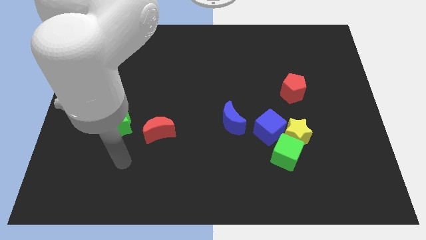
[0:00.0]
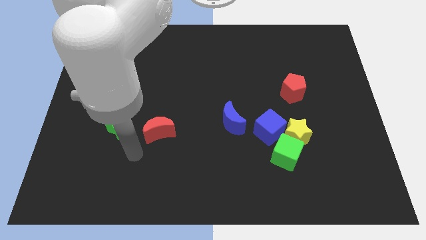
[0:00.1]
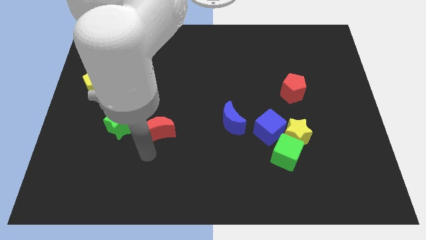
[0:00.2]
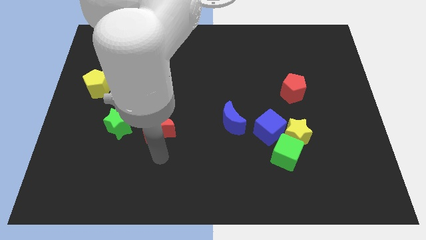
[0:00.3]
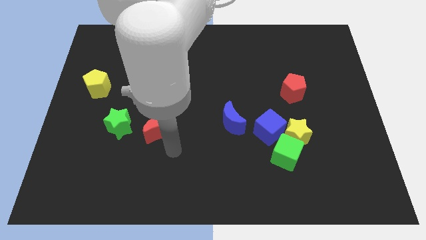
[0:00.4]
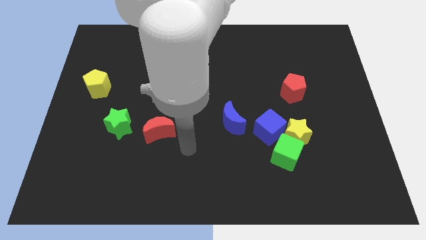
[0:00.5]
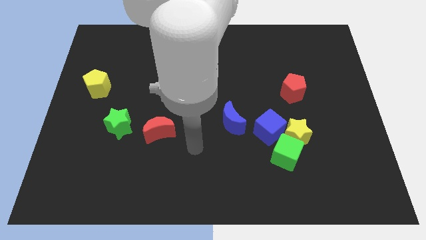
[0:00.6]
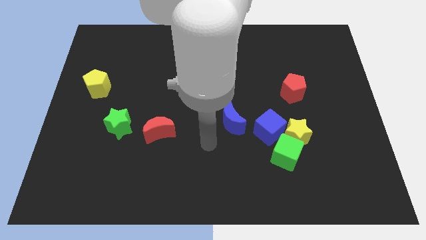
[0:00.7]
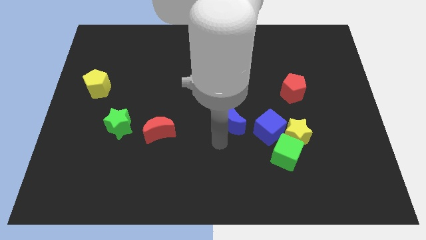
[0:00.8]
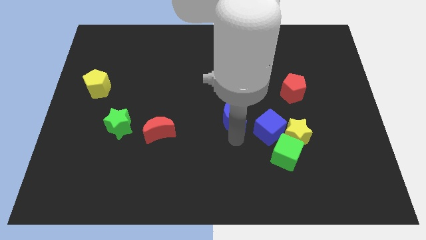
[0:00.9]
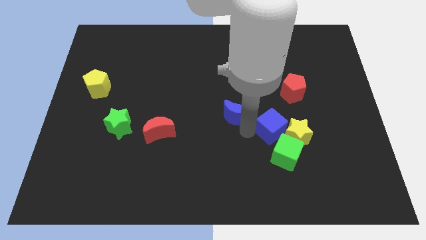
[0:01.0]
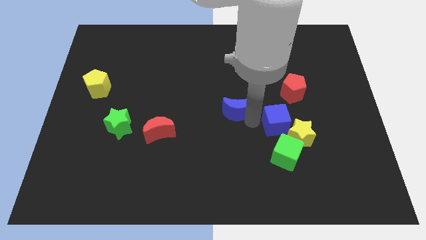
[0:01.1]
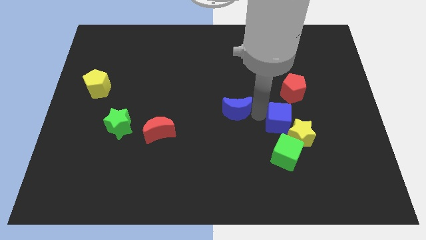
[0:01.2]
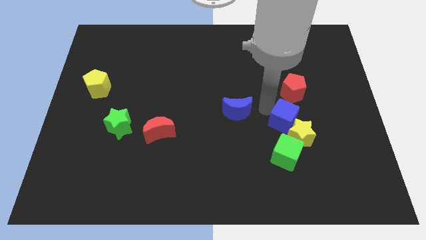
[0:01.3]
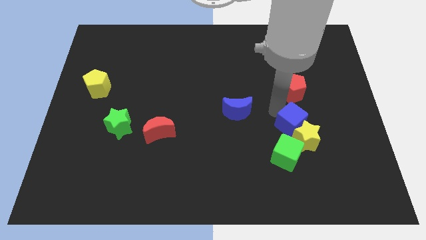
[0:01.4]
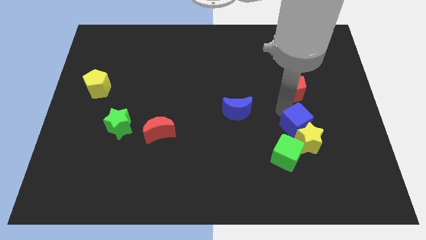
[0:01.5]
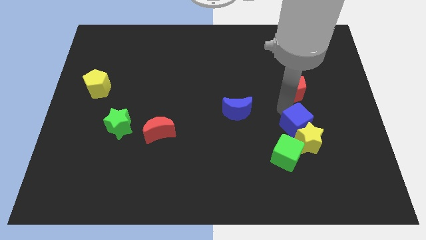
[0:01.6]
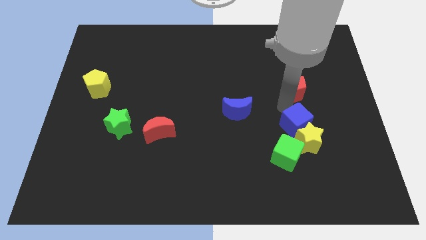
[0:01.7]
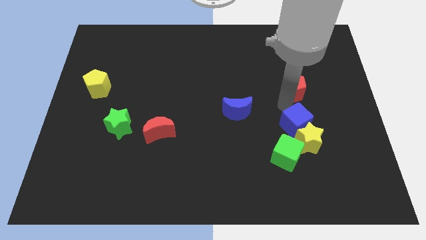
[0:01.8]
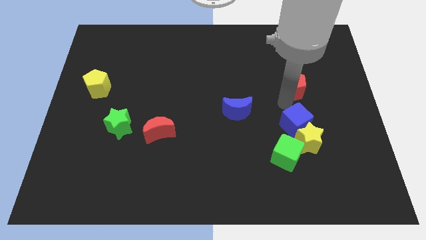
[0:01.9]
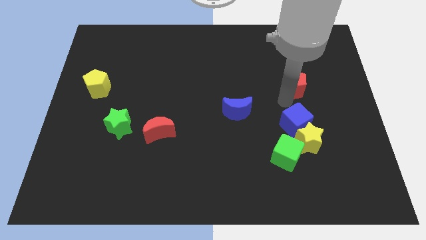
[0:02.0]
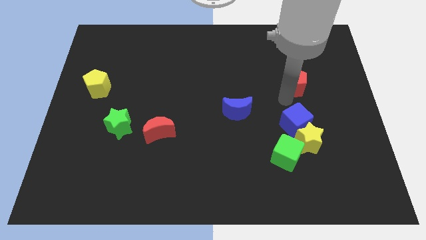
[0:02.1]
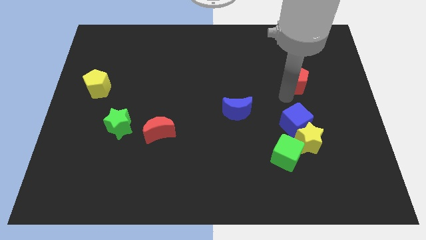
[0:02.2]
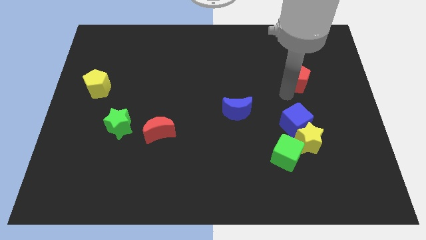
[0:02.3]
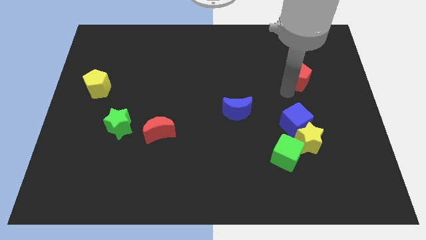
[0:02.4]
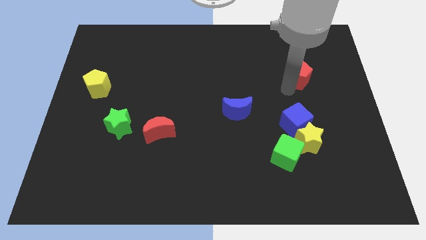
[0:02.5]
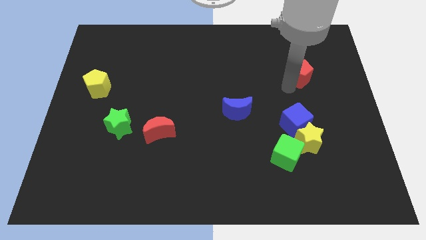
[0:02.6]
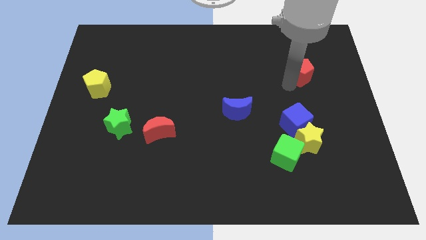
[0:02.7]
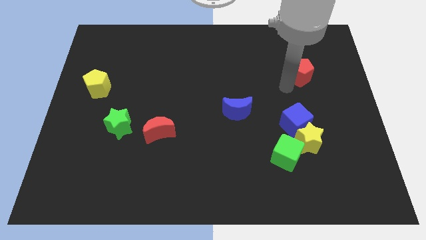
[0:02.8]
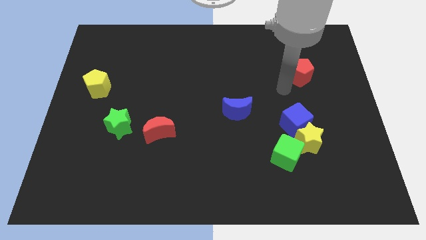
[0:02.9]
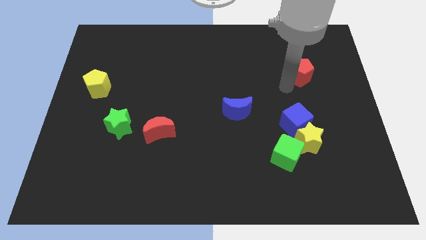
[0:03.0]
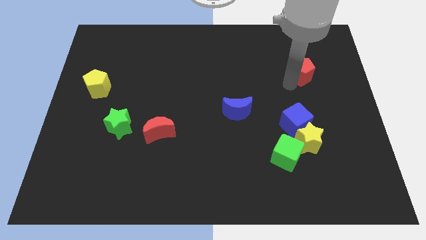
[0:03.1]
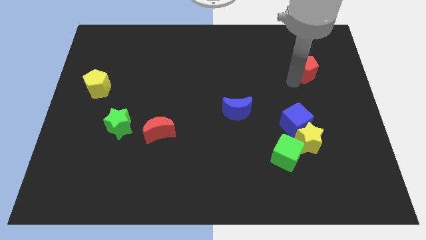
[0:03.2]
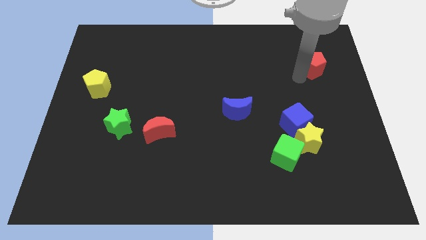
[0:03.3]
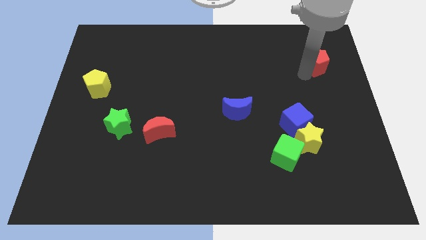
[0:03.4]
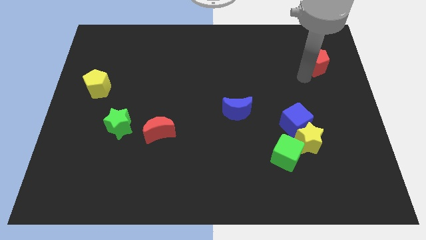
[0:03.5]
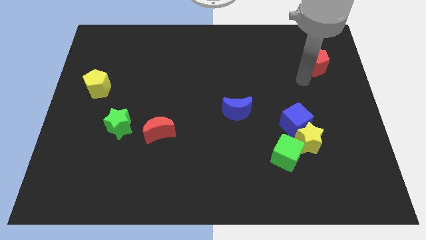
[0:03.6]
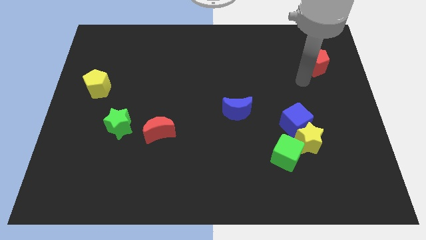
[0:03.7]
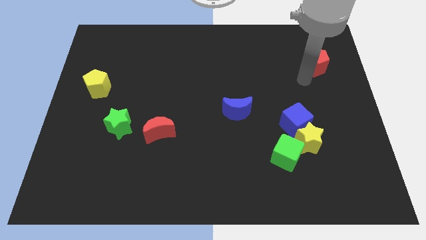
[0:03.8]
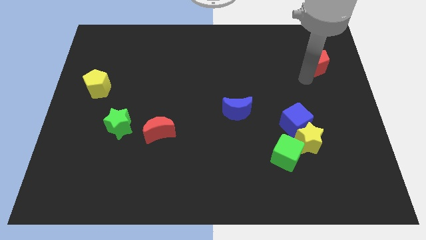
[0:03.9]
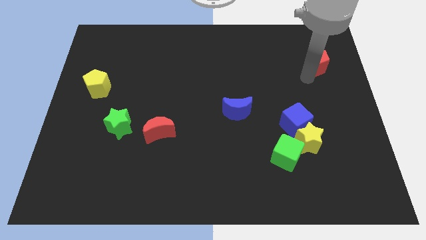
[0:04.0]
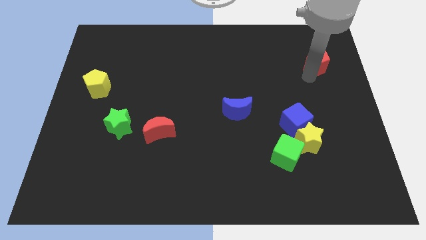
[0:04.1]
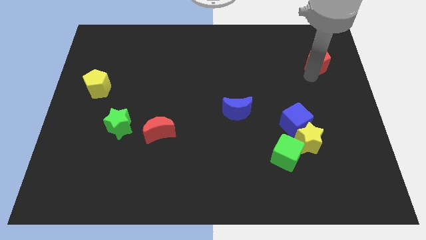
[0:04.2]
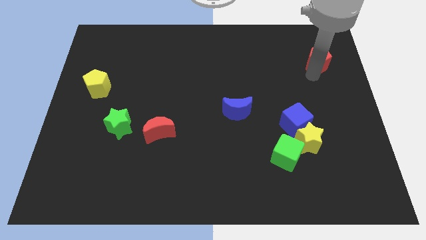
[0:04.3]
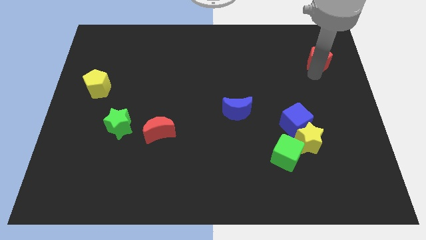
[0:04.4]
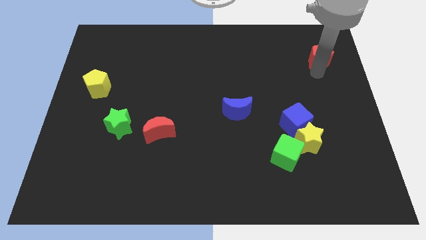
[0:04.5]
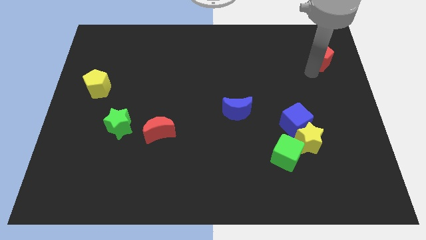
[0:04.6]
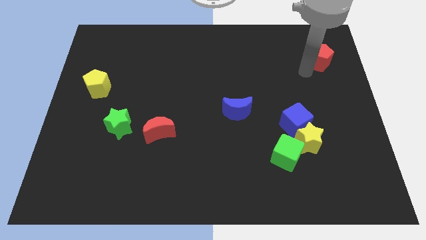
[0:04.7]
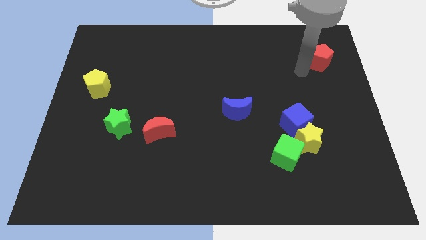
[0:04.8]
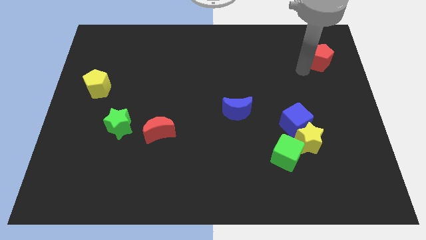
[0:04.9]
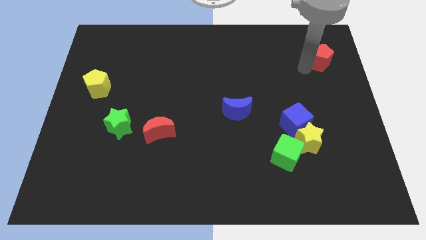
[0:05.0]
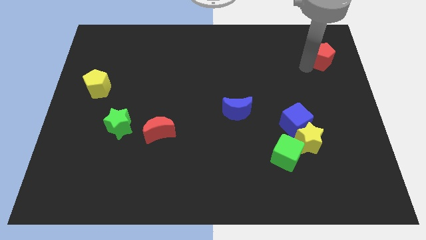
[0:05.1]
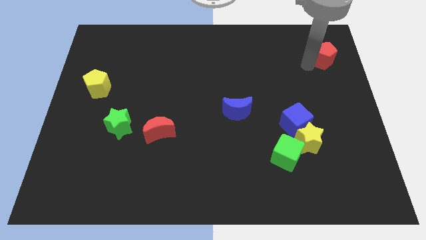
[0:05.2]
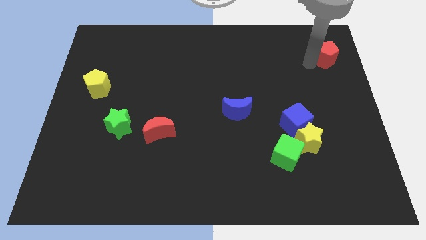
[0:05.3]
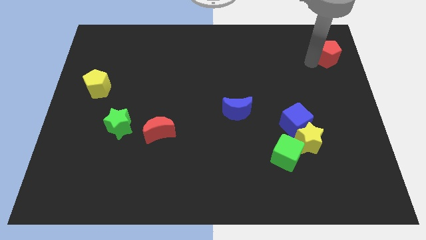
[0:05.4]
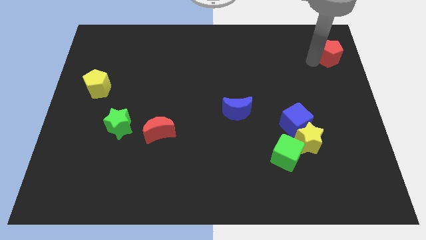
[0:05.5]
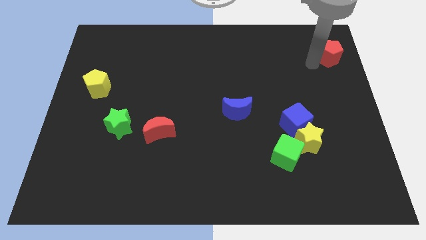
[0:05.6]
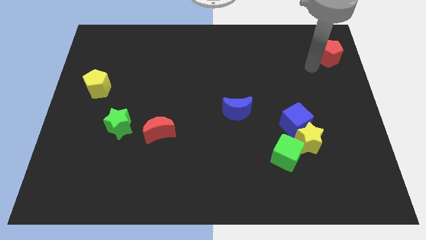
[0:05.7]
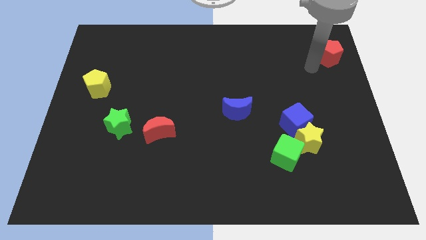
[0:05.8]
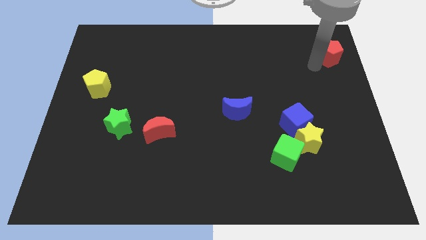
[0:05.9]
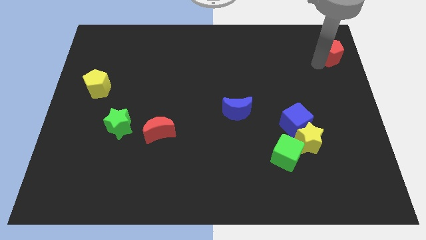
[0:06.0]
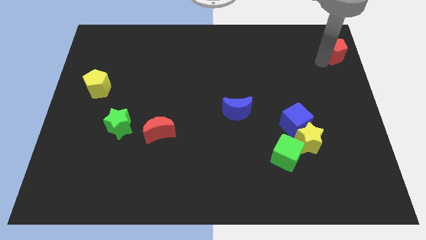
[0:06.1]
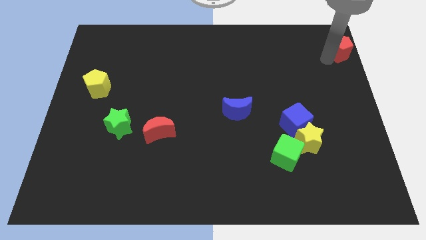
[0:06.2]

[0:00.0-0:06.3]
slide the red pentagon to the top right of the board
